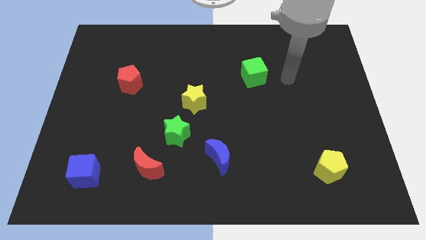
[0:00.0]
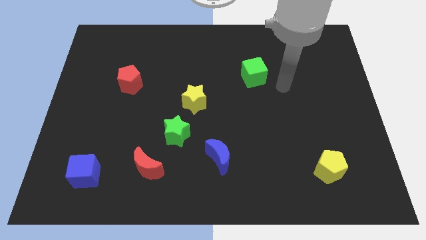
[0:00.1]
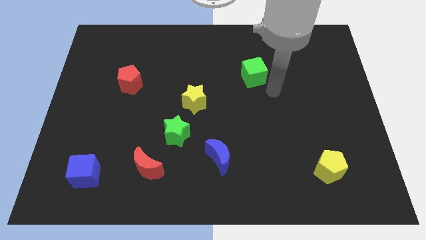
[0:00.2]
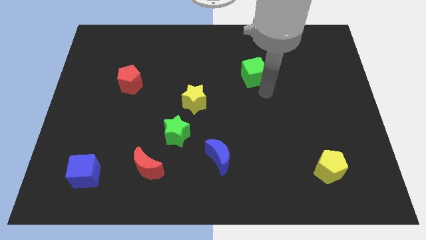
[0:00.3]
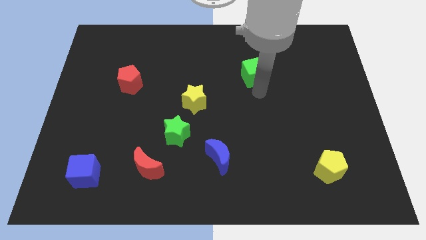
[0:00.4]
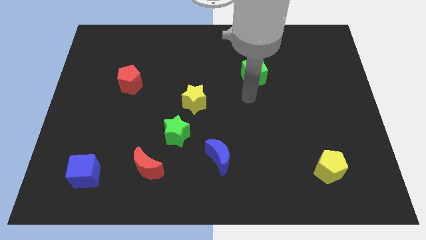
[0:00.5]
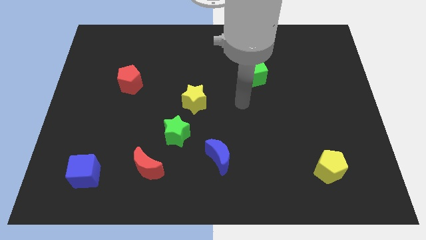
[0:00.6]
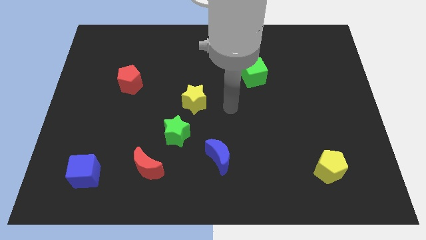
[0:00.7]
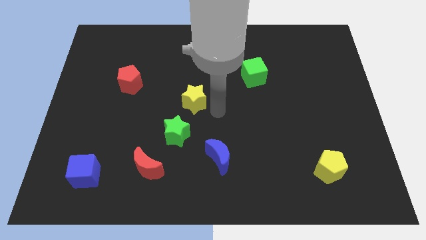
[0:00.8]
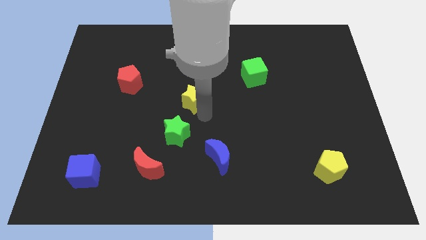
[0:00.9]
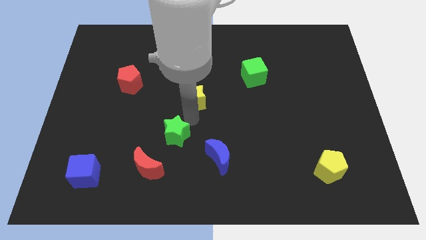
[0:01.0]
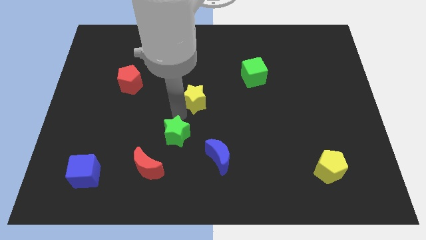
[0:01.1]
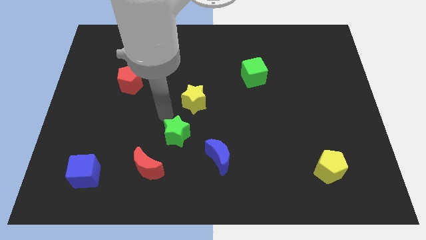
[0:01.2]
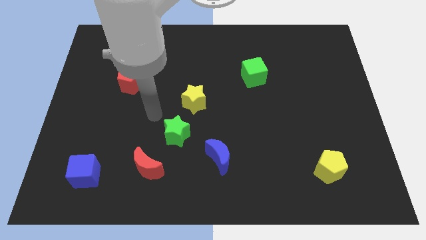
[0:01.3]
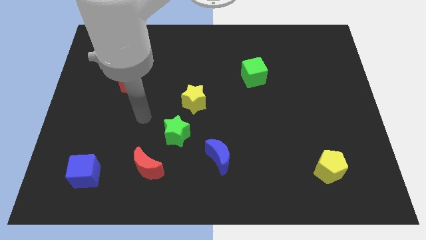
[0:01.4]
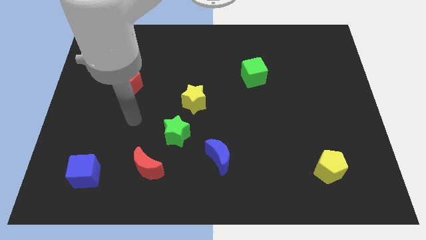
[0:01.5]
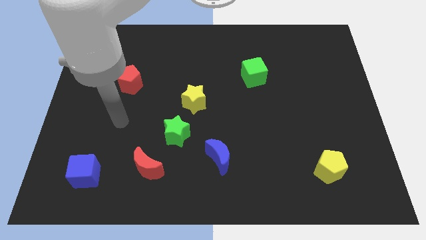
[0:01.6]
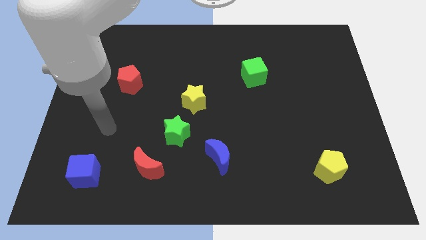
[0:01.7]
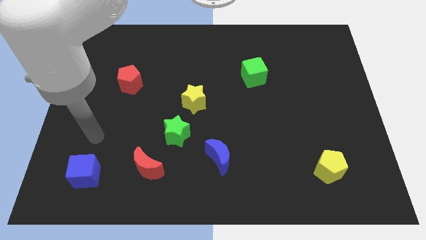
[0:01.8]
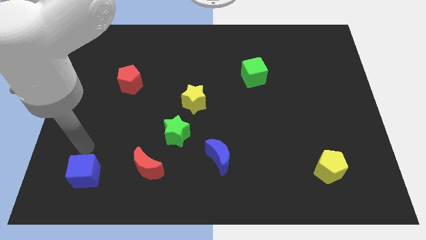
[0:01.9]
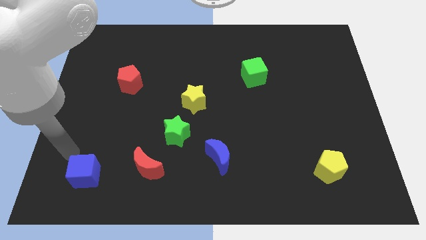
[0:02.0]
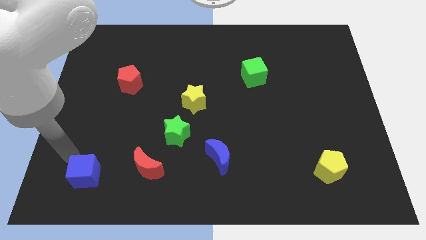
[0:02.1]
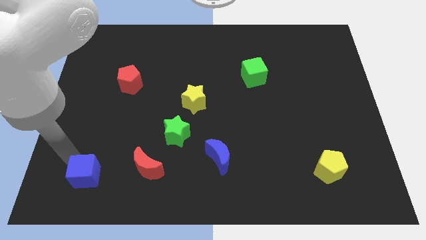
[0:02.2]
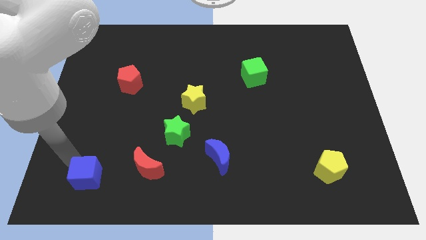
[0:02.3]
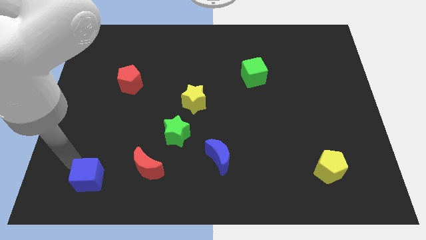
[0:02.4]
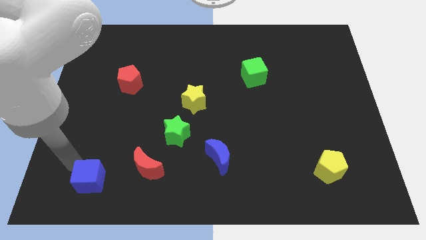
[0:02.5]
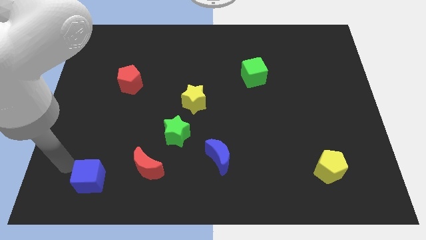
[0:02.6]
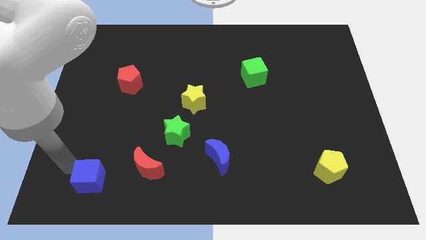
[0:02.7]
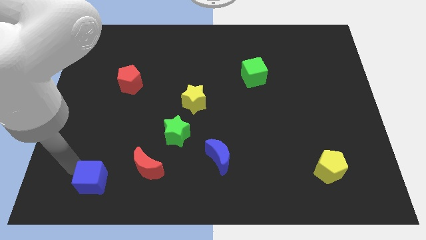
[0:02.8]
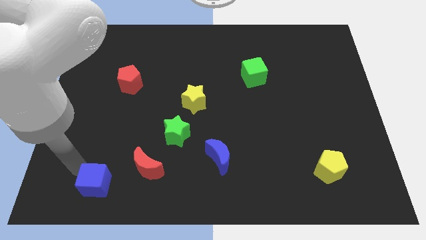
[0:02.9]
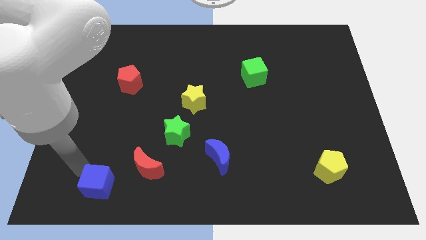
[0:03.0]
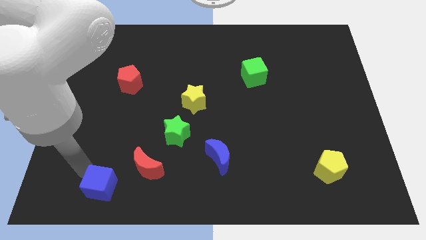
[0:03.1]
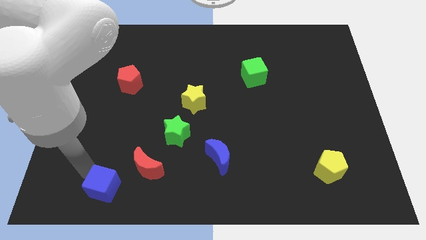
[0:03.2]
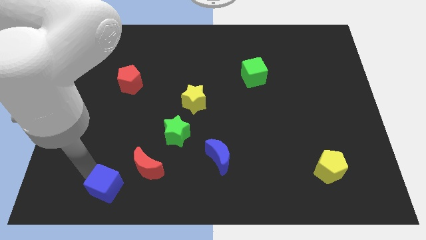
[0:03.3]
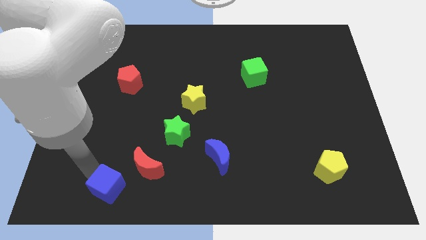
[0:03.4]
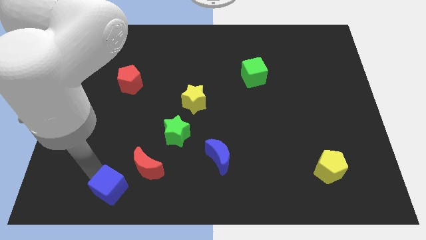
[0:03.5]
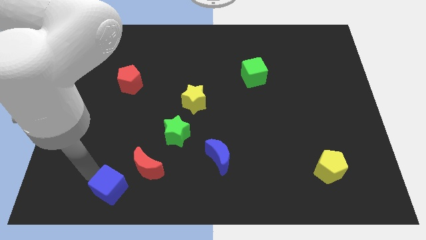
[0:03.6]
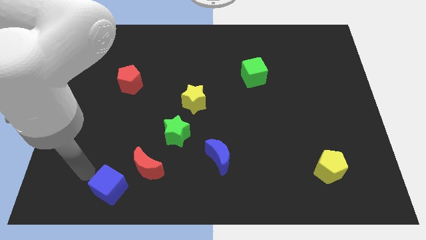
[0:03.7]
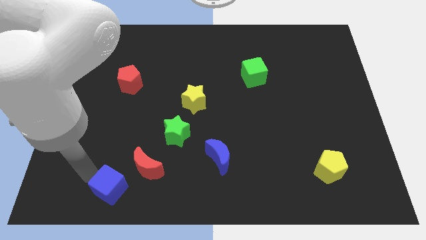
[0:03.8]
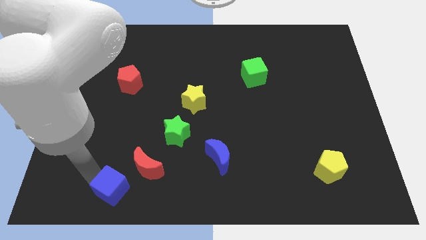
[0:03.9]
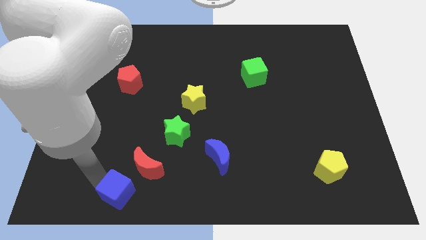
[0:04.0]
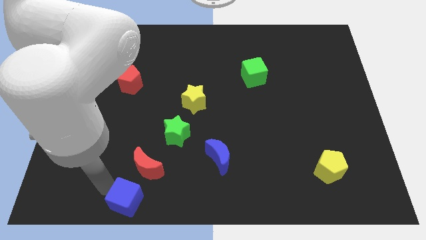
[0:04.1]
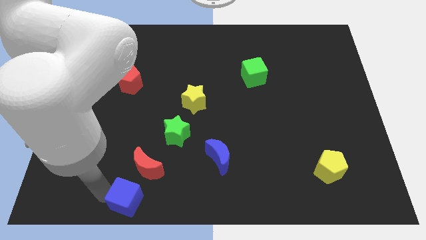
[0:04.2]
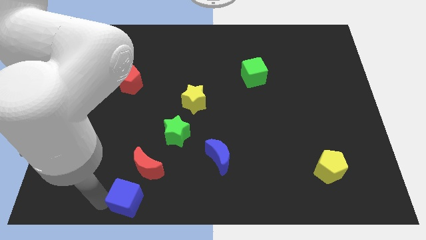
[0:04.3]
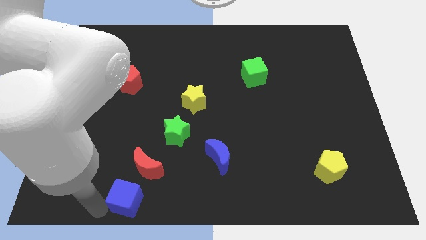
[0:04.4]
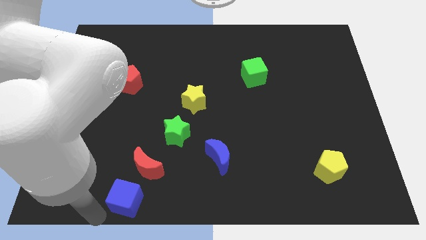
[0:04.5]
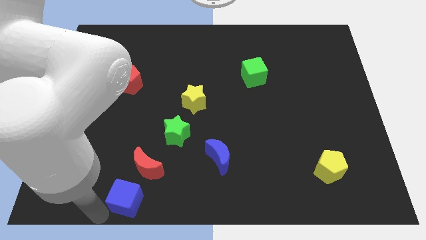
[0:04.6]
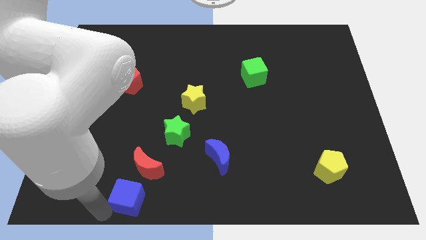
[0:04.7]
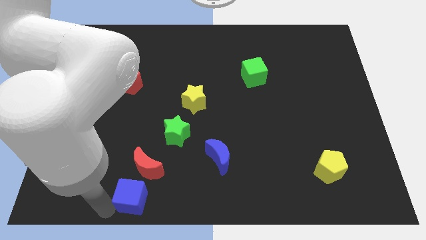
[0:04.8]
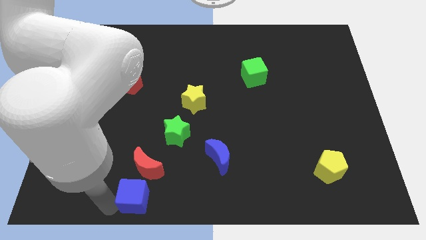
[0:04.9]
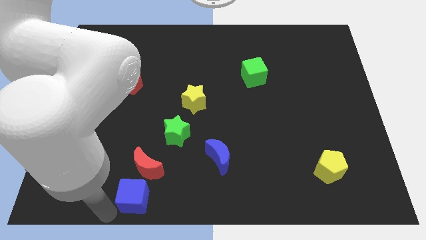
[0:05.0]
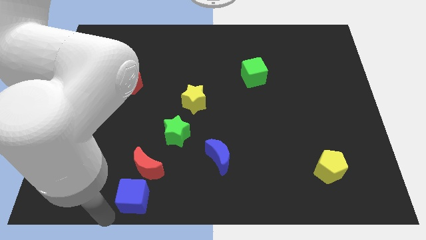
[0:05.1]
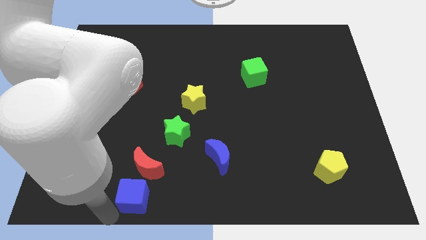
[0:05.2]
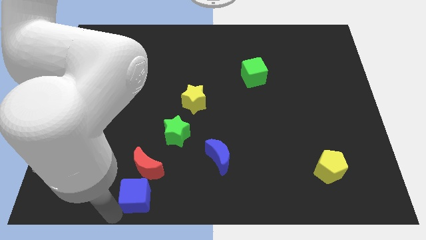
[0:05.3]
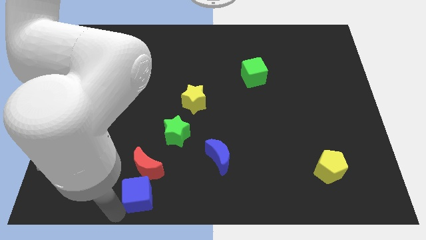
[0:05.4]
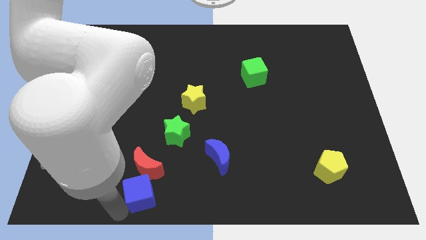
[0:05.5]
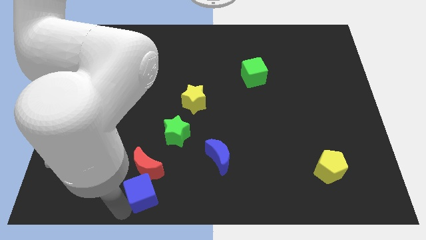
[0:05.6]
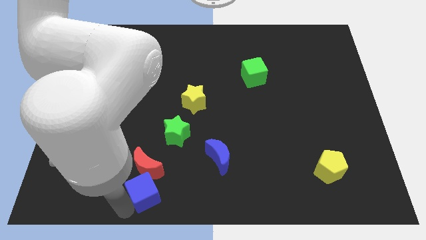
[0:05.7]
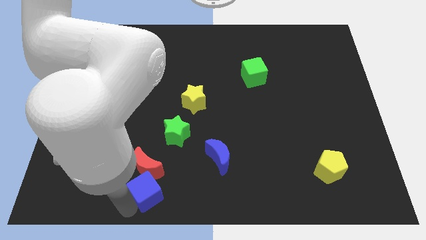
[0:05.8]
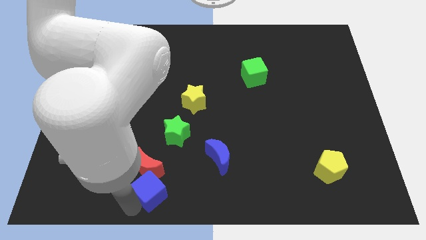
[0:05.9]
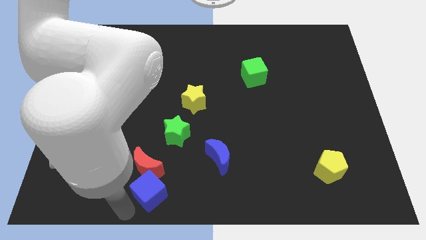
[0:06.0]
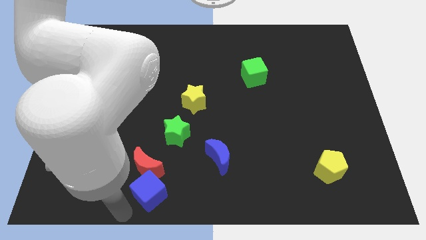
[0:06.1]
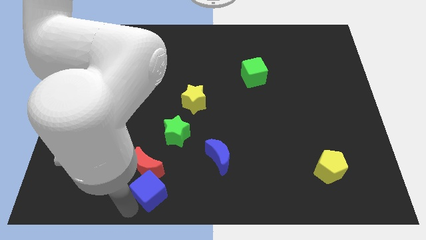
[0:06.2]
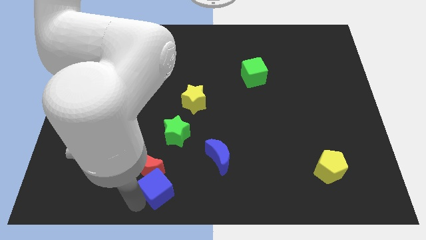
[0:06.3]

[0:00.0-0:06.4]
put the blue cube below the green star

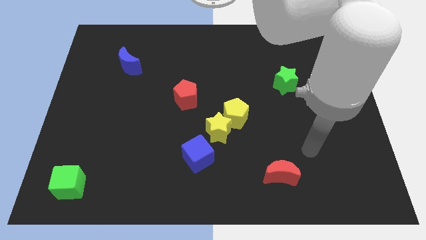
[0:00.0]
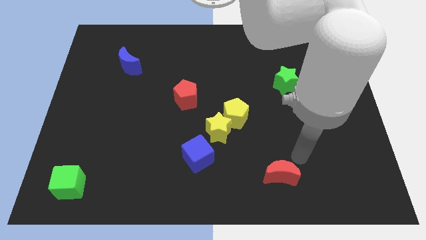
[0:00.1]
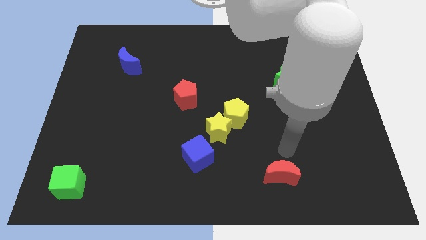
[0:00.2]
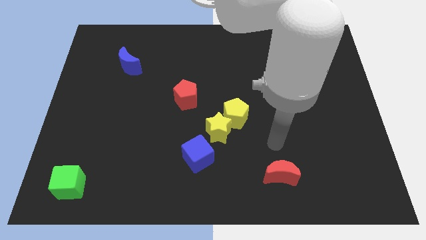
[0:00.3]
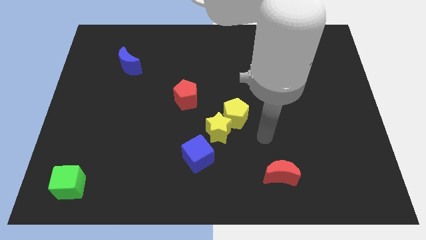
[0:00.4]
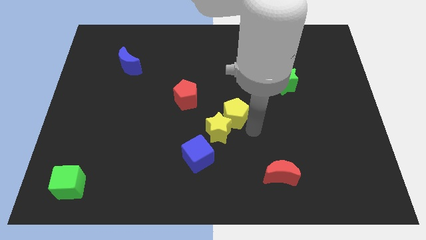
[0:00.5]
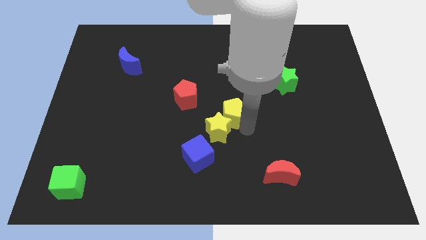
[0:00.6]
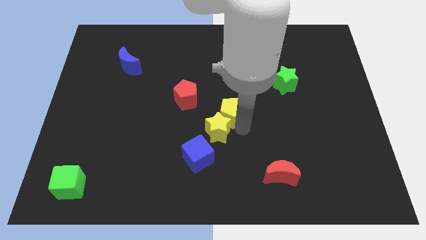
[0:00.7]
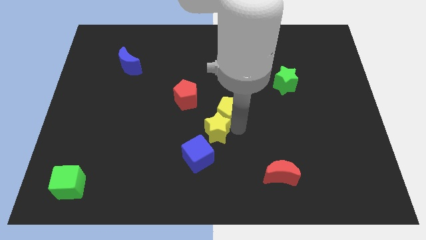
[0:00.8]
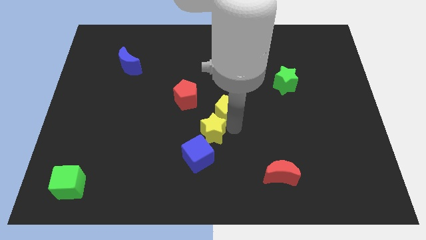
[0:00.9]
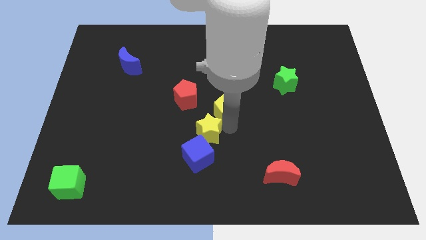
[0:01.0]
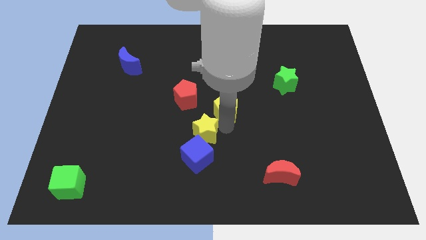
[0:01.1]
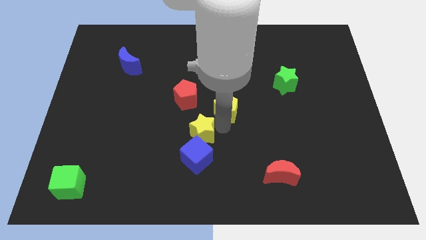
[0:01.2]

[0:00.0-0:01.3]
slide the yellow star diagonally up and to the left of the blue cube
